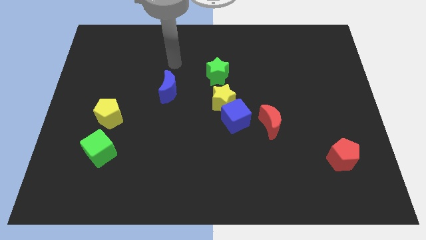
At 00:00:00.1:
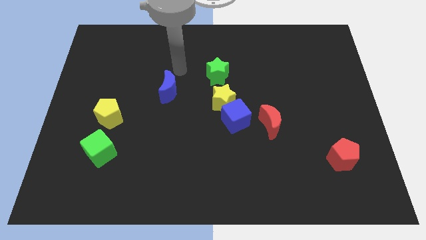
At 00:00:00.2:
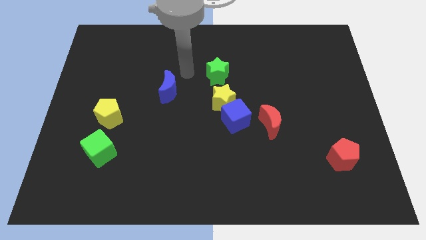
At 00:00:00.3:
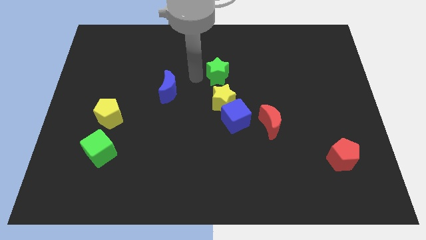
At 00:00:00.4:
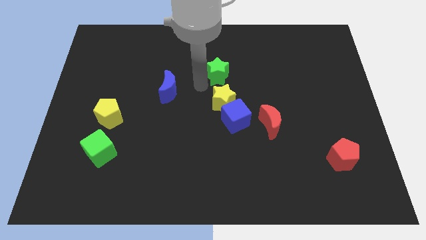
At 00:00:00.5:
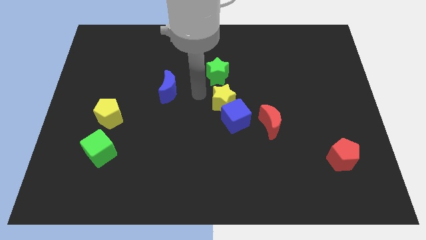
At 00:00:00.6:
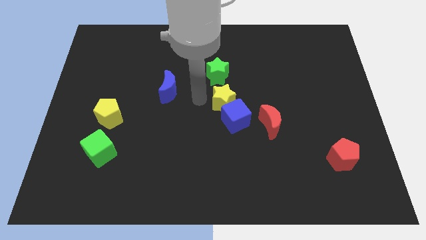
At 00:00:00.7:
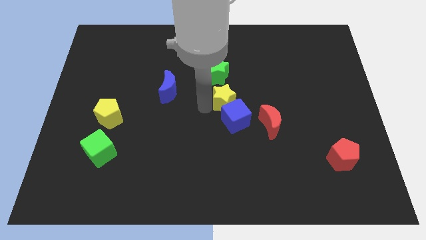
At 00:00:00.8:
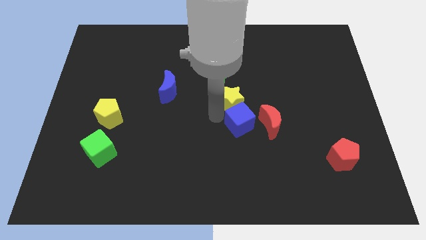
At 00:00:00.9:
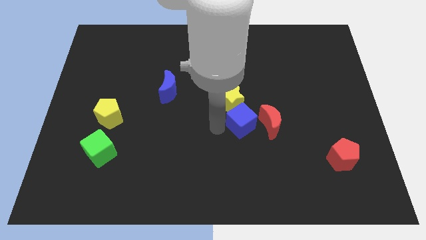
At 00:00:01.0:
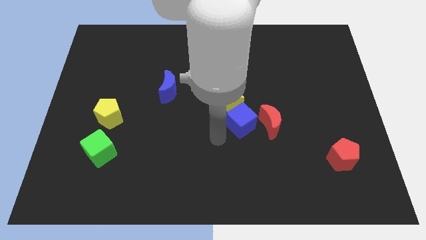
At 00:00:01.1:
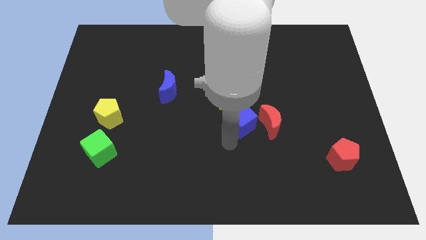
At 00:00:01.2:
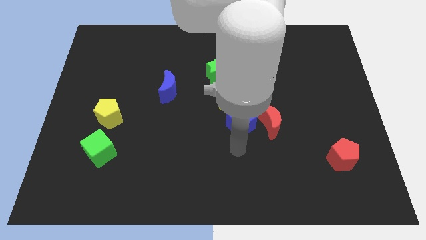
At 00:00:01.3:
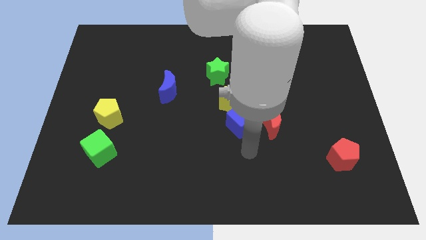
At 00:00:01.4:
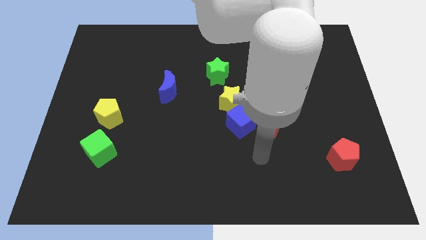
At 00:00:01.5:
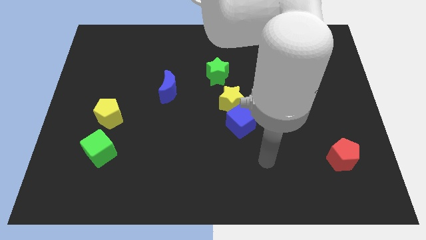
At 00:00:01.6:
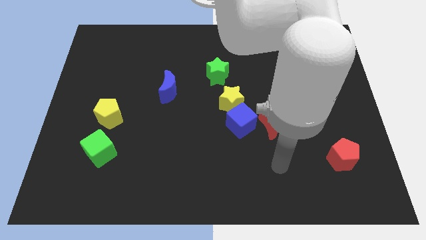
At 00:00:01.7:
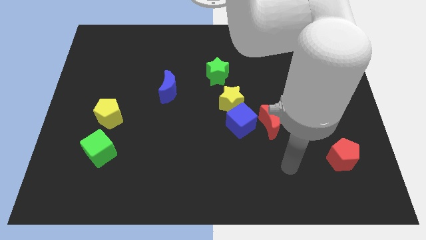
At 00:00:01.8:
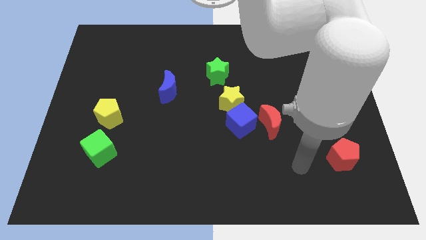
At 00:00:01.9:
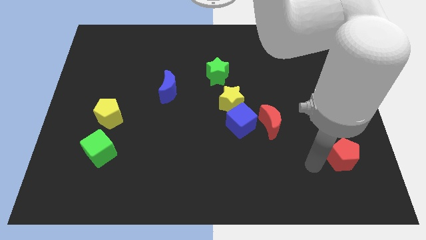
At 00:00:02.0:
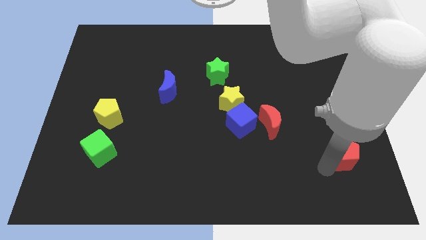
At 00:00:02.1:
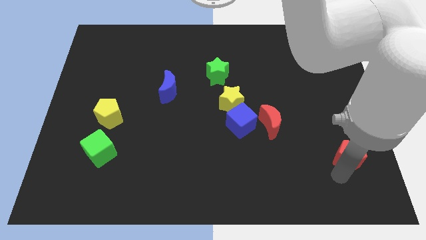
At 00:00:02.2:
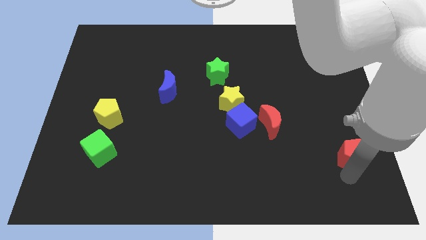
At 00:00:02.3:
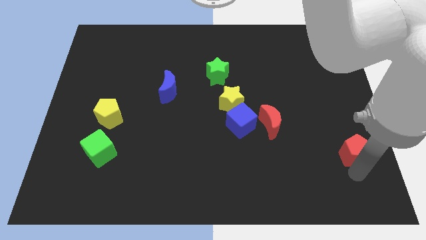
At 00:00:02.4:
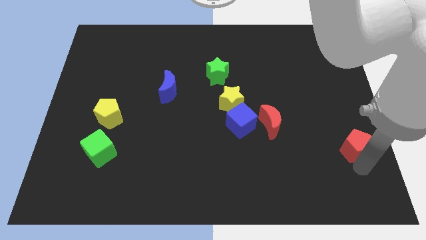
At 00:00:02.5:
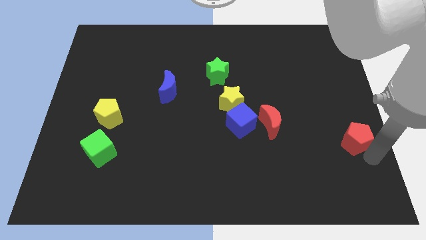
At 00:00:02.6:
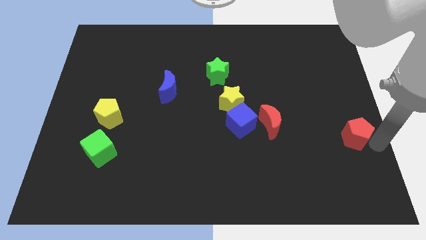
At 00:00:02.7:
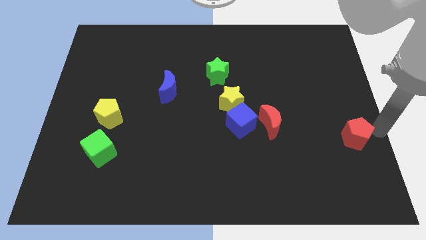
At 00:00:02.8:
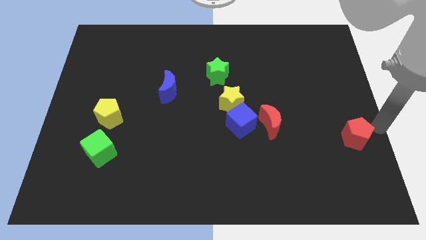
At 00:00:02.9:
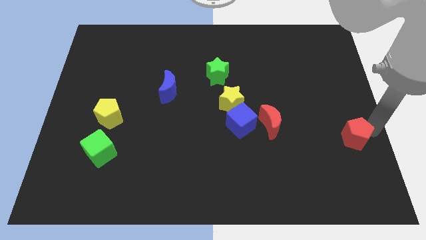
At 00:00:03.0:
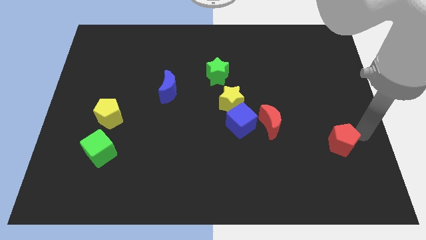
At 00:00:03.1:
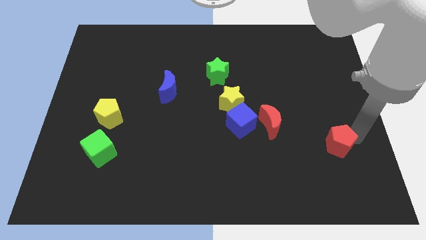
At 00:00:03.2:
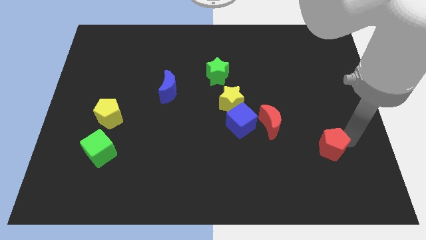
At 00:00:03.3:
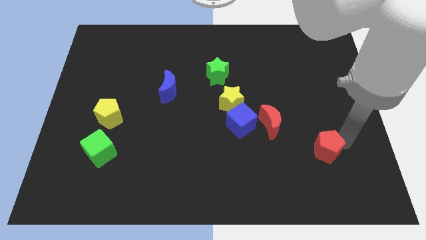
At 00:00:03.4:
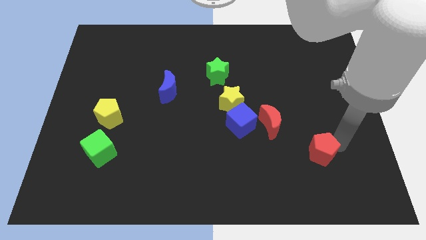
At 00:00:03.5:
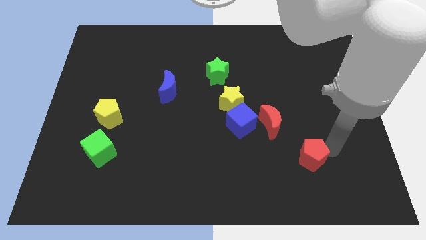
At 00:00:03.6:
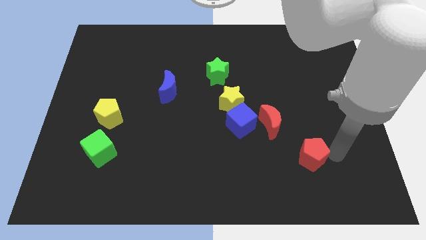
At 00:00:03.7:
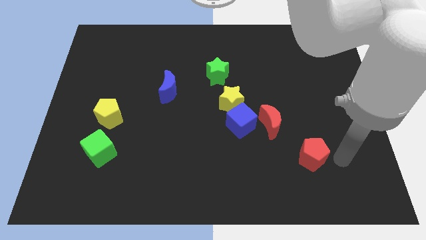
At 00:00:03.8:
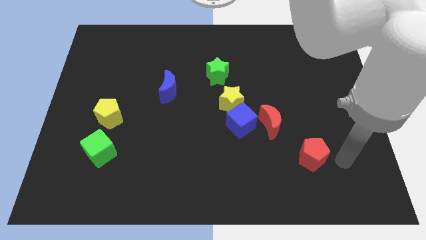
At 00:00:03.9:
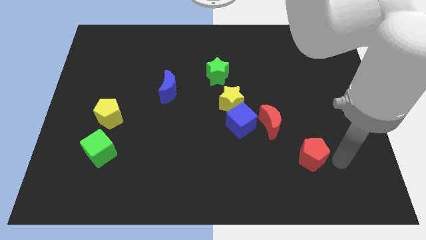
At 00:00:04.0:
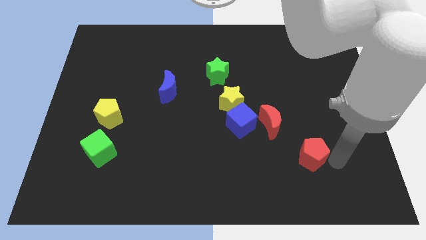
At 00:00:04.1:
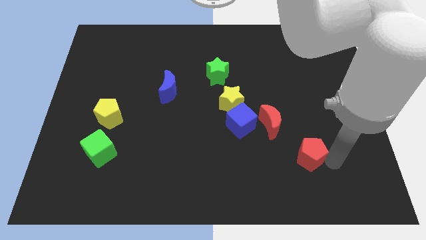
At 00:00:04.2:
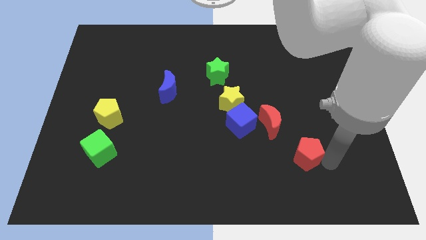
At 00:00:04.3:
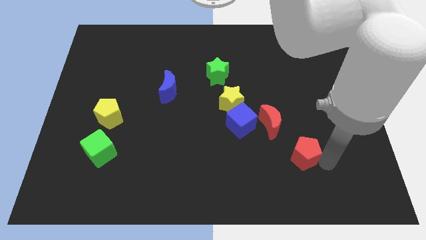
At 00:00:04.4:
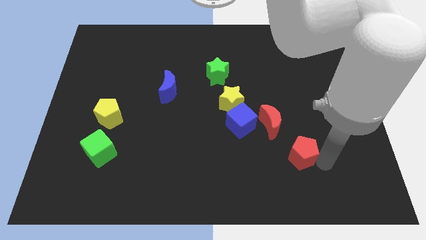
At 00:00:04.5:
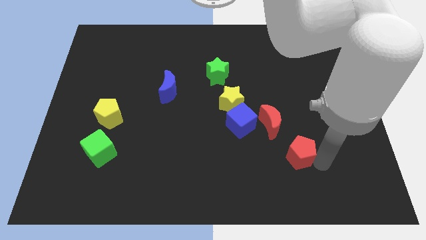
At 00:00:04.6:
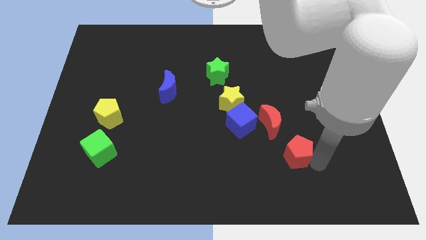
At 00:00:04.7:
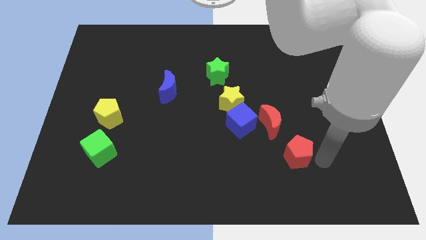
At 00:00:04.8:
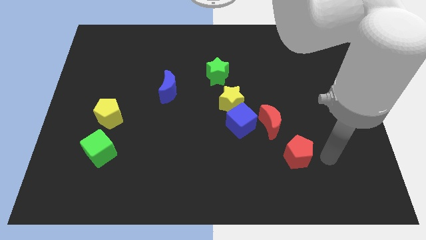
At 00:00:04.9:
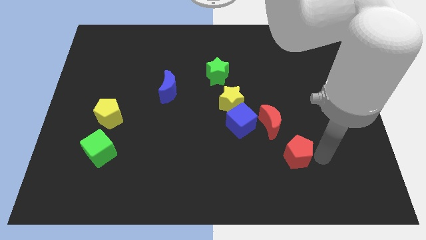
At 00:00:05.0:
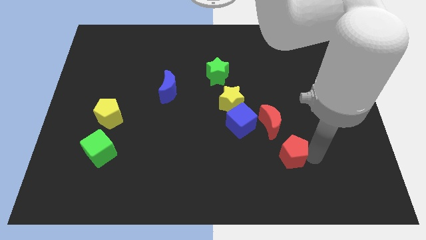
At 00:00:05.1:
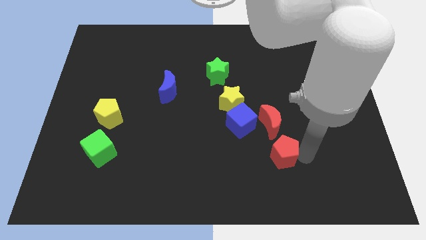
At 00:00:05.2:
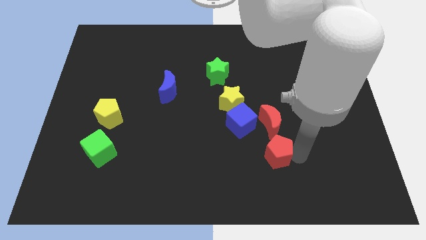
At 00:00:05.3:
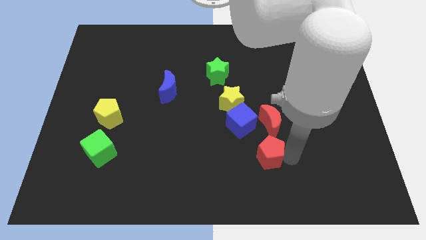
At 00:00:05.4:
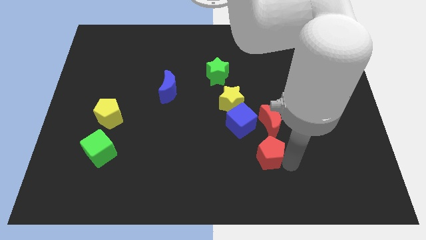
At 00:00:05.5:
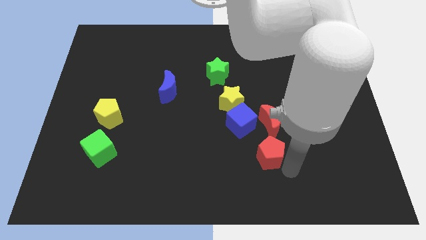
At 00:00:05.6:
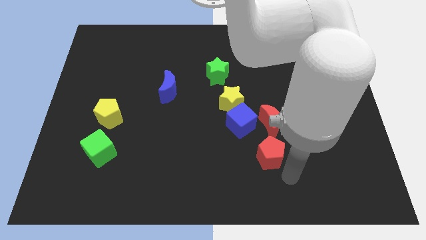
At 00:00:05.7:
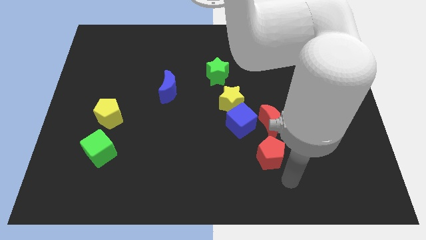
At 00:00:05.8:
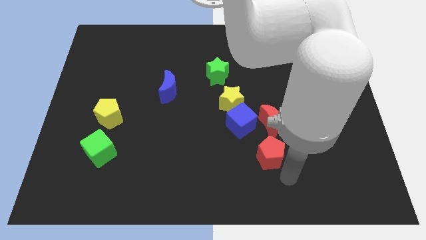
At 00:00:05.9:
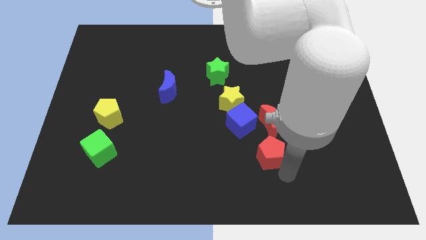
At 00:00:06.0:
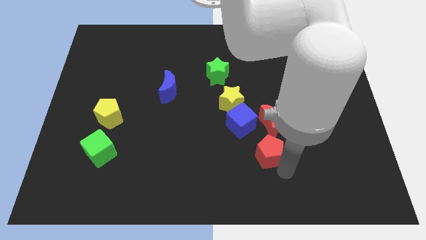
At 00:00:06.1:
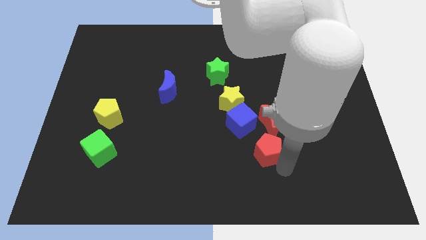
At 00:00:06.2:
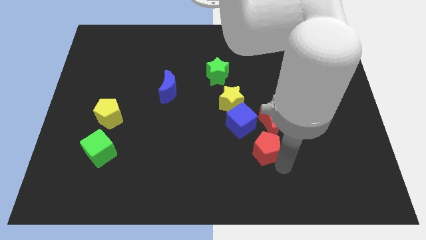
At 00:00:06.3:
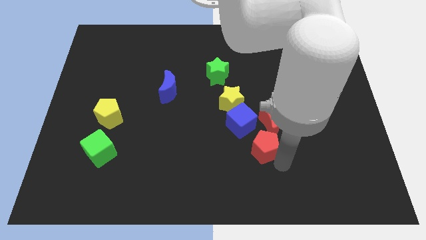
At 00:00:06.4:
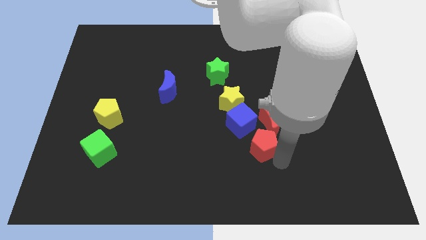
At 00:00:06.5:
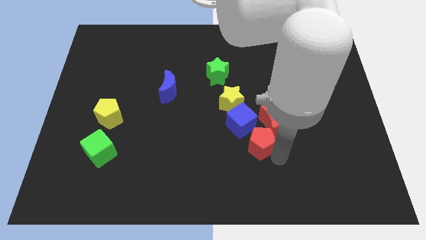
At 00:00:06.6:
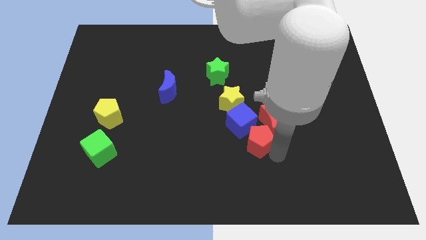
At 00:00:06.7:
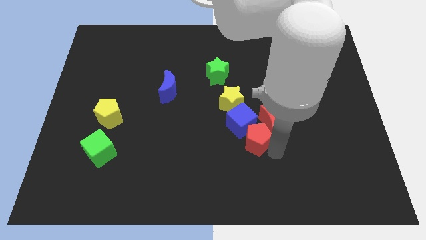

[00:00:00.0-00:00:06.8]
move the red pentagon to the blue cube

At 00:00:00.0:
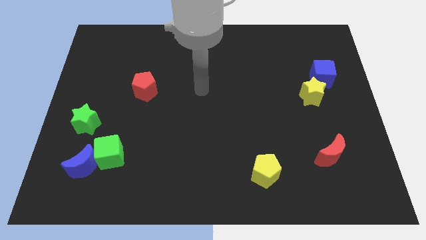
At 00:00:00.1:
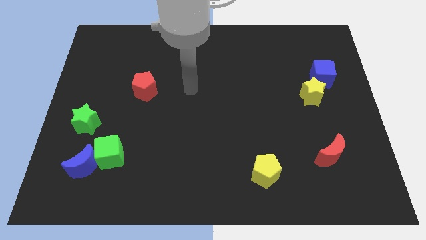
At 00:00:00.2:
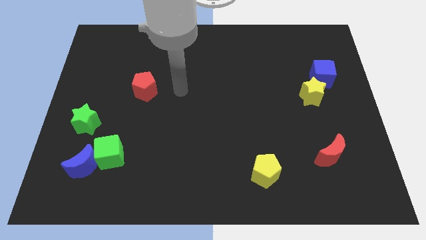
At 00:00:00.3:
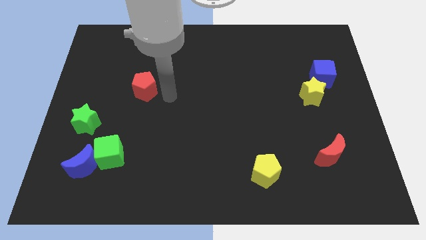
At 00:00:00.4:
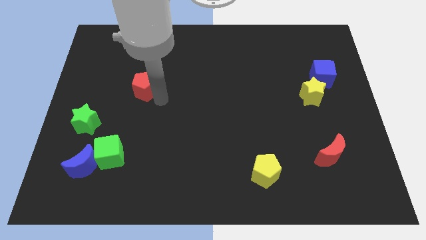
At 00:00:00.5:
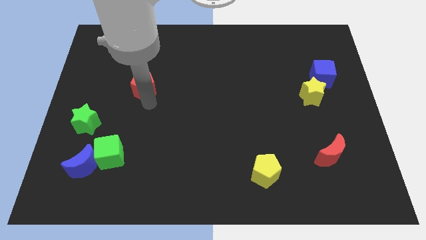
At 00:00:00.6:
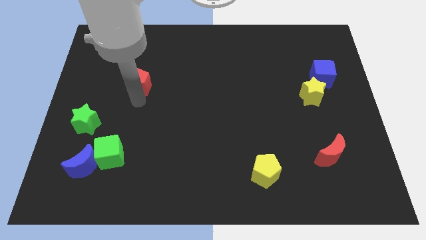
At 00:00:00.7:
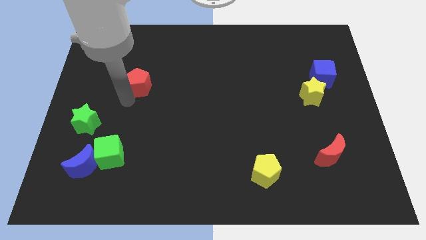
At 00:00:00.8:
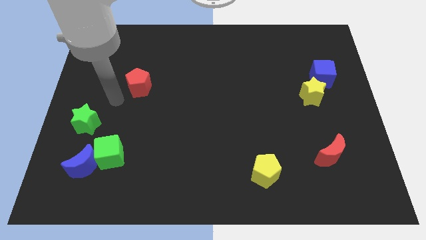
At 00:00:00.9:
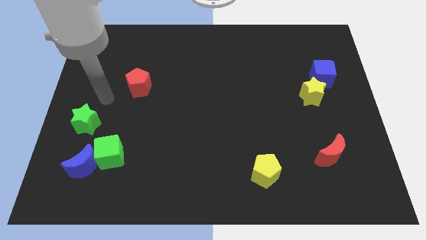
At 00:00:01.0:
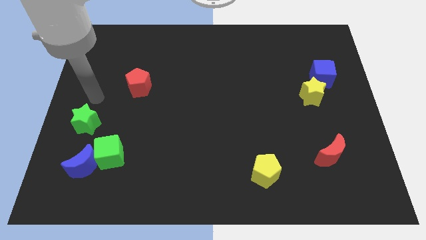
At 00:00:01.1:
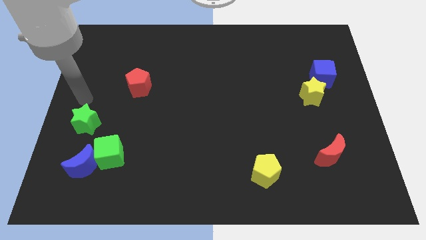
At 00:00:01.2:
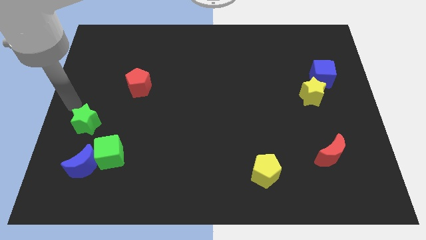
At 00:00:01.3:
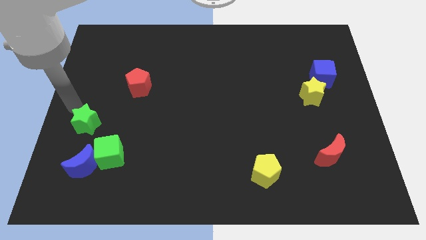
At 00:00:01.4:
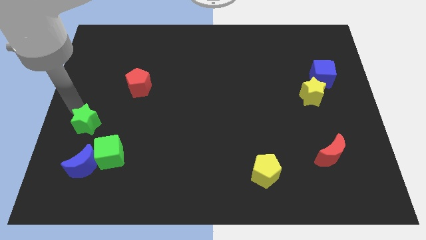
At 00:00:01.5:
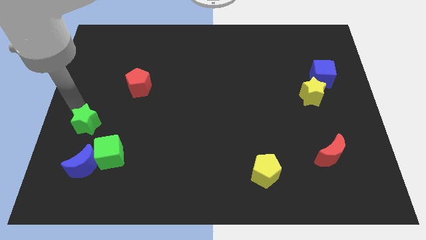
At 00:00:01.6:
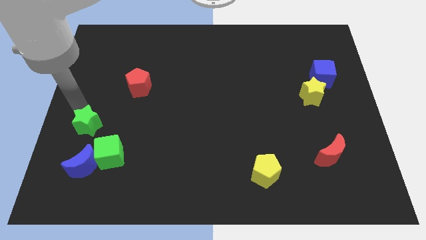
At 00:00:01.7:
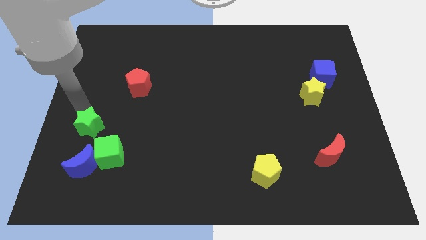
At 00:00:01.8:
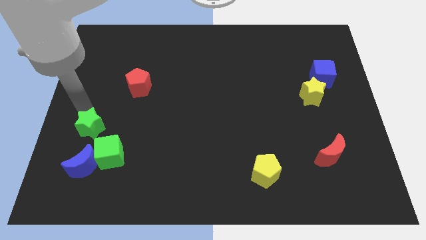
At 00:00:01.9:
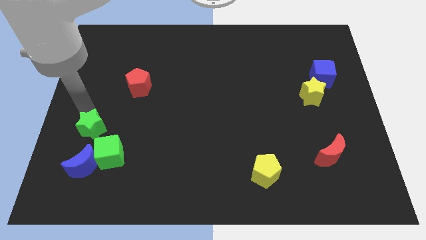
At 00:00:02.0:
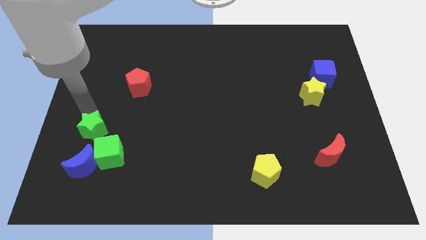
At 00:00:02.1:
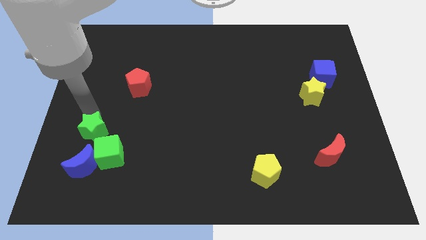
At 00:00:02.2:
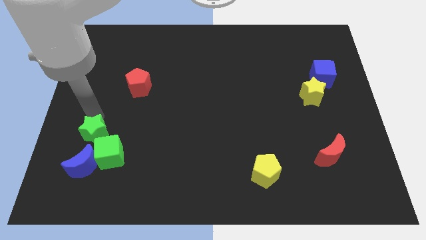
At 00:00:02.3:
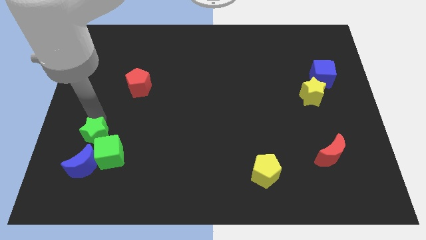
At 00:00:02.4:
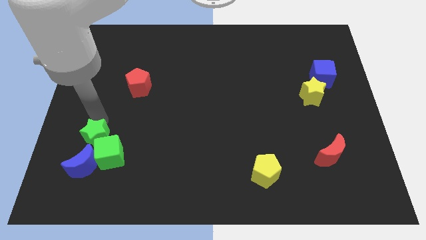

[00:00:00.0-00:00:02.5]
slide the green star close to the green cube
